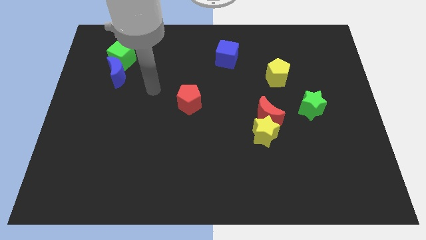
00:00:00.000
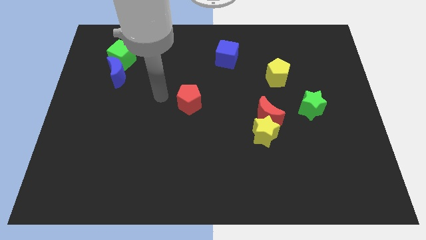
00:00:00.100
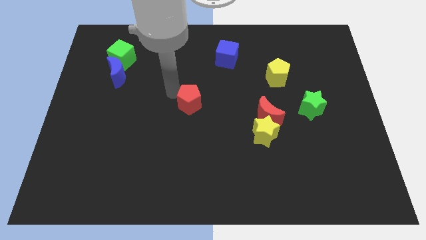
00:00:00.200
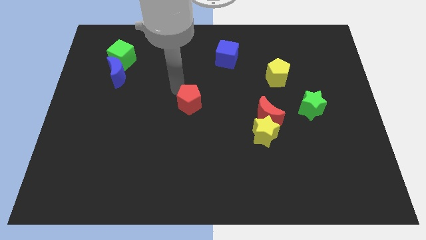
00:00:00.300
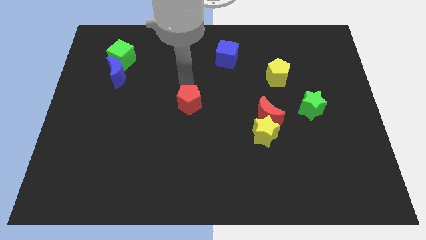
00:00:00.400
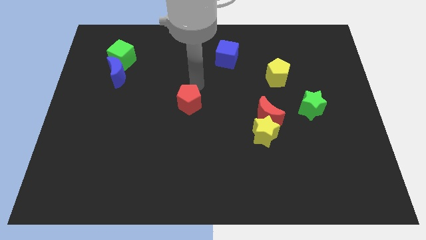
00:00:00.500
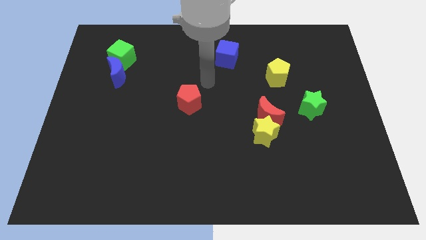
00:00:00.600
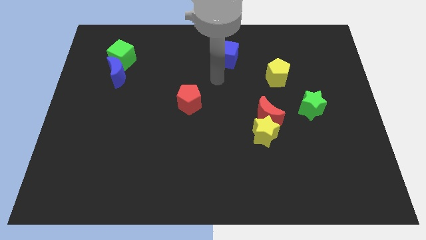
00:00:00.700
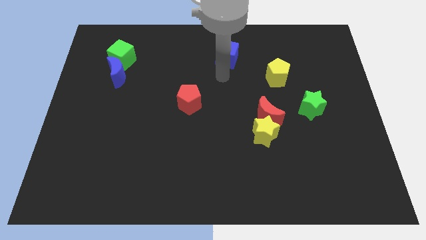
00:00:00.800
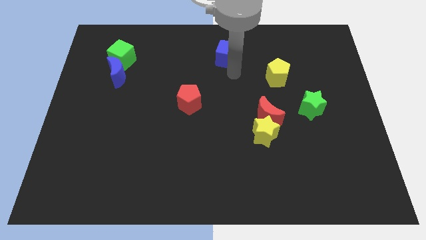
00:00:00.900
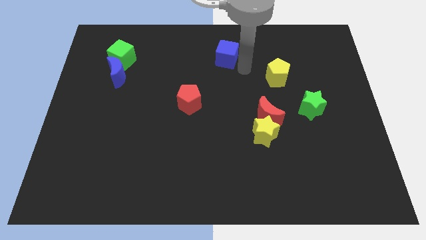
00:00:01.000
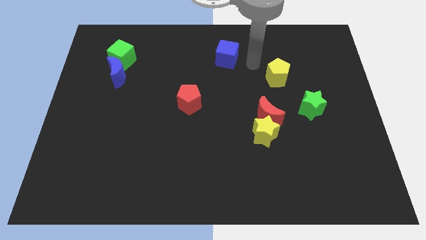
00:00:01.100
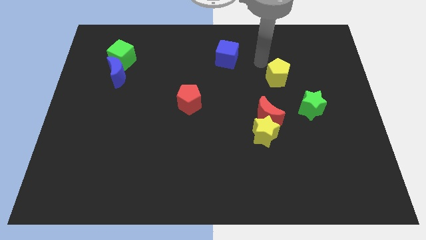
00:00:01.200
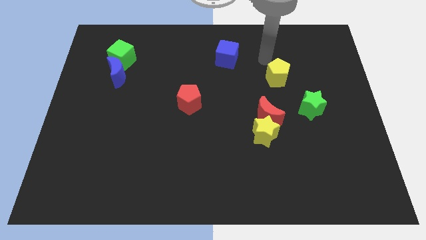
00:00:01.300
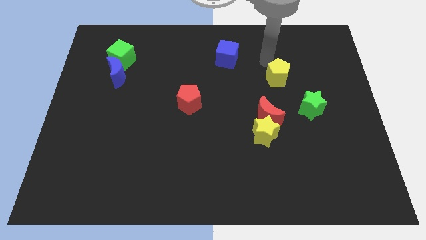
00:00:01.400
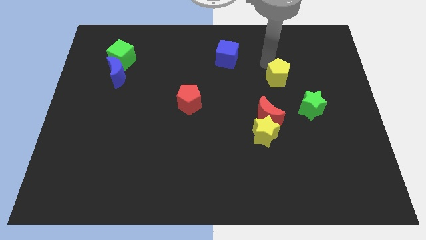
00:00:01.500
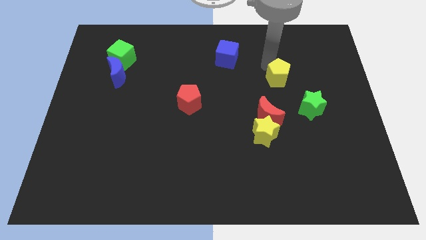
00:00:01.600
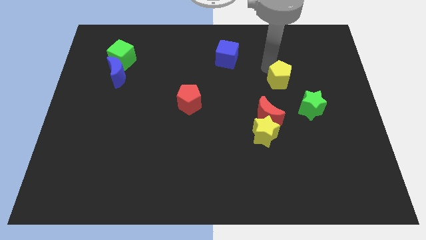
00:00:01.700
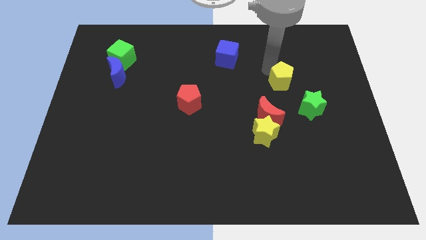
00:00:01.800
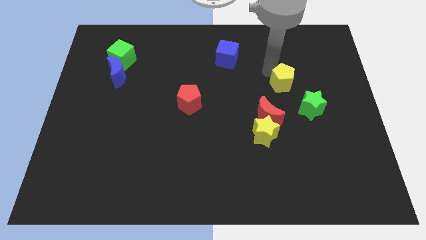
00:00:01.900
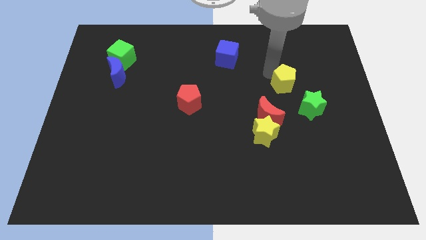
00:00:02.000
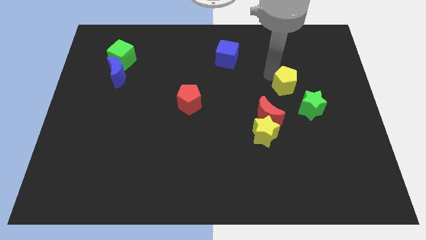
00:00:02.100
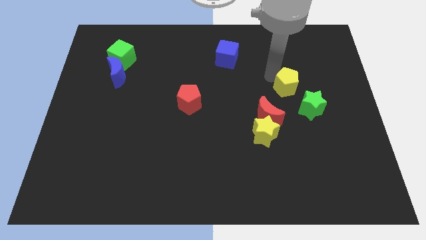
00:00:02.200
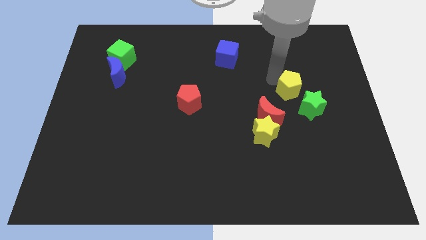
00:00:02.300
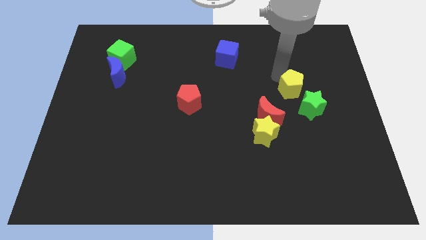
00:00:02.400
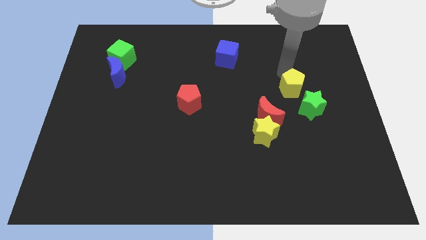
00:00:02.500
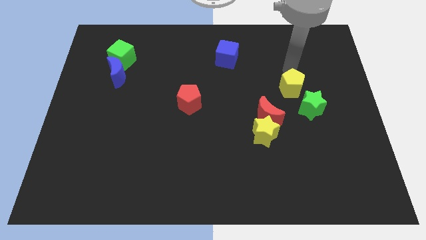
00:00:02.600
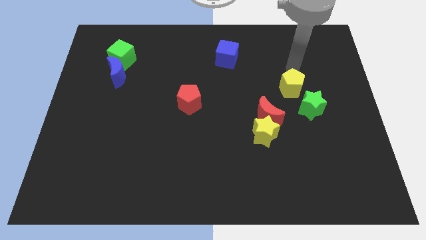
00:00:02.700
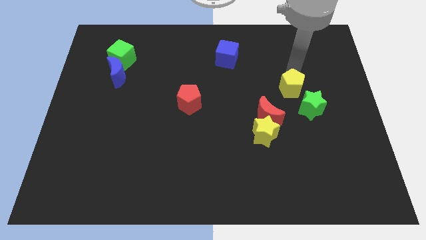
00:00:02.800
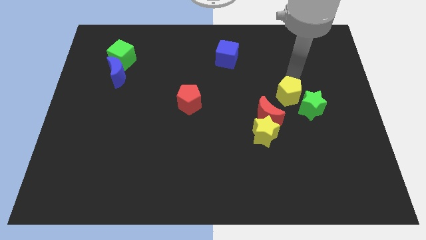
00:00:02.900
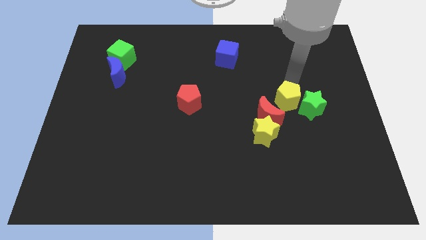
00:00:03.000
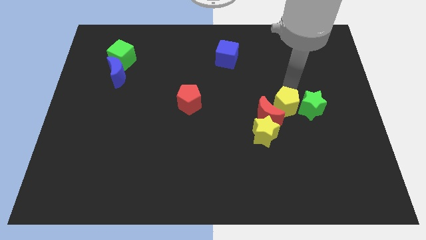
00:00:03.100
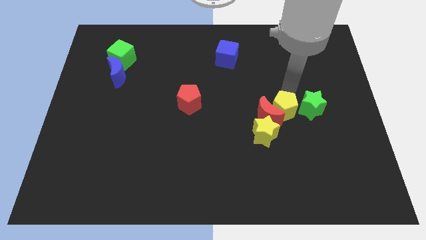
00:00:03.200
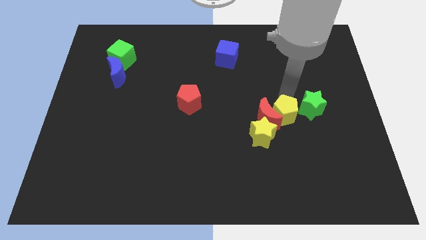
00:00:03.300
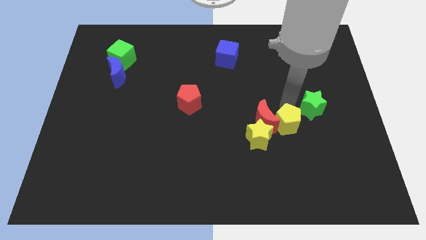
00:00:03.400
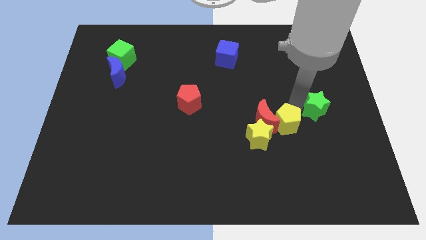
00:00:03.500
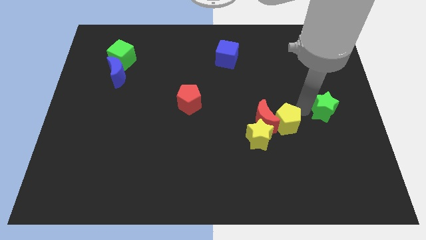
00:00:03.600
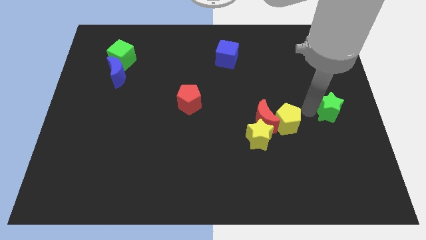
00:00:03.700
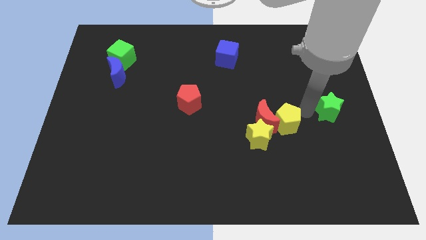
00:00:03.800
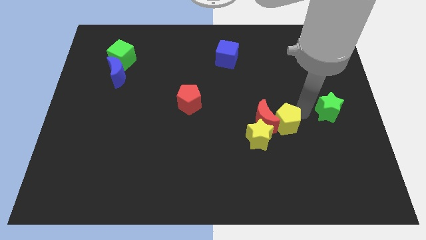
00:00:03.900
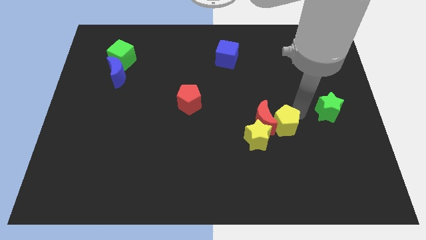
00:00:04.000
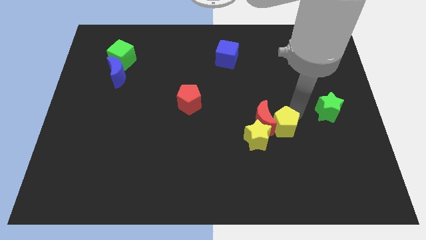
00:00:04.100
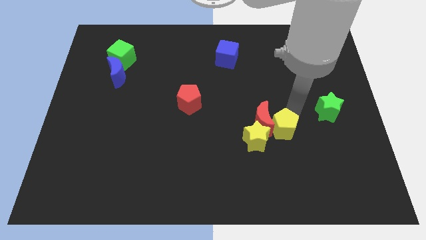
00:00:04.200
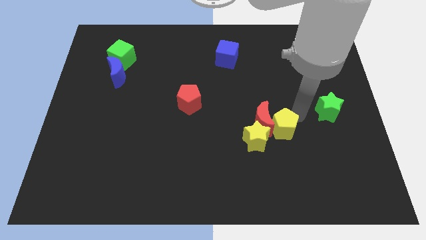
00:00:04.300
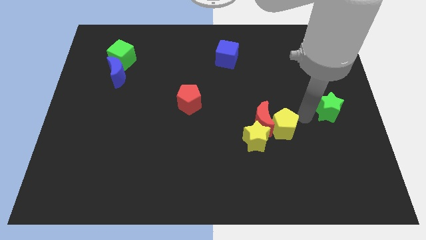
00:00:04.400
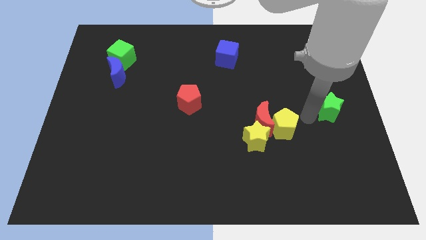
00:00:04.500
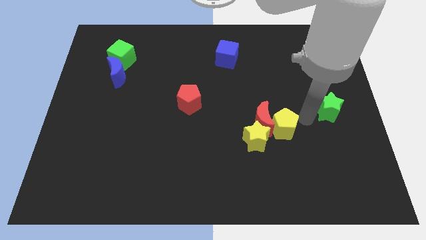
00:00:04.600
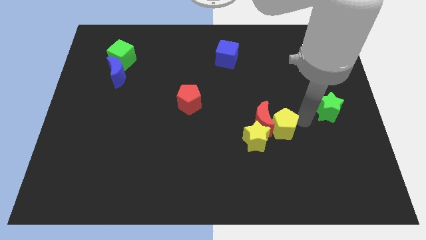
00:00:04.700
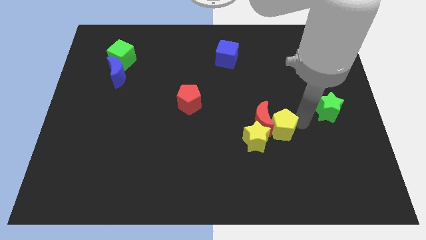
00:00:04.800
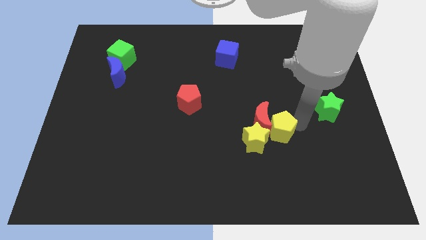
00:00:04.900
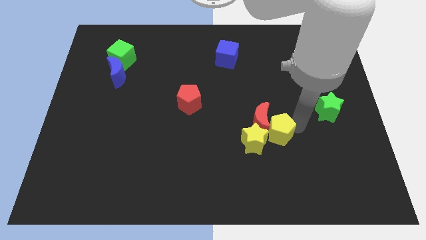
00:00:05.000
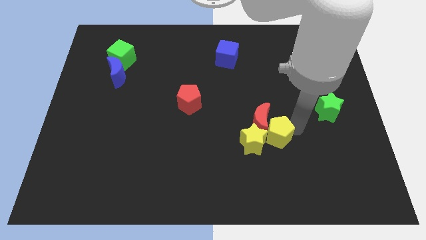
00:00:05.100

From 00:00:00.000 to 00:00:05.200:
put the yellow pentagon to the yellow star

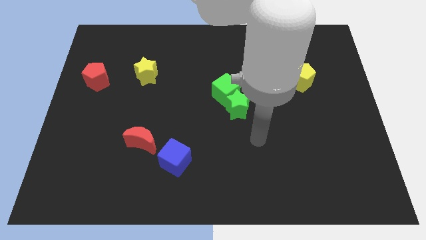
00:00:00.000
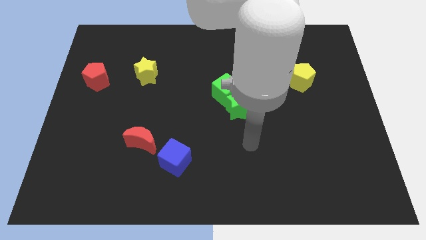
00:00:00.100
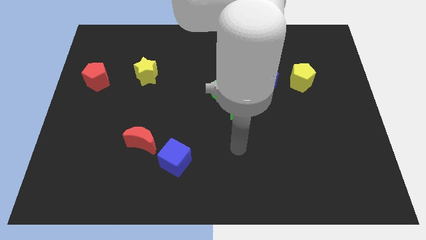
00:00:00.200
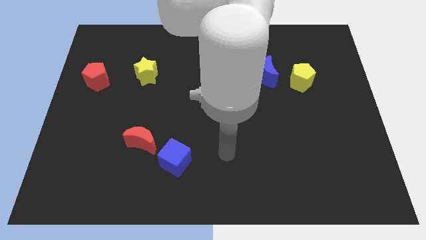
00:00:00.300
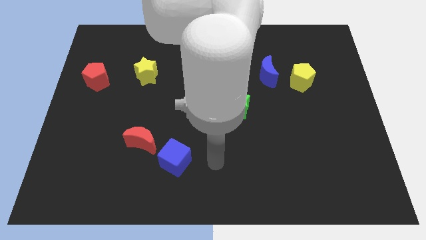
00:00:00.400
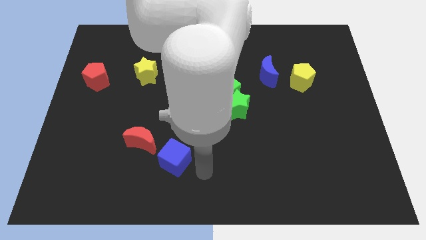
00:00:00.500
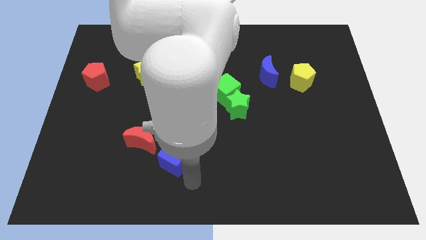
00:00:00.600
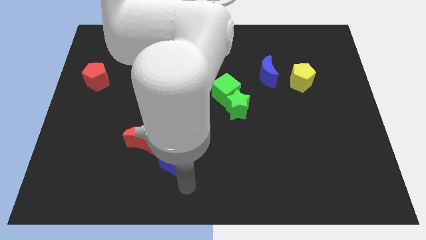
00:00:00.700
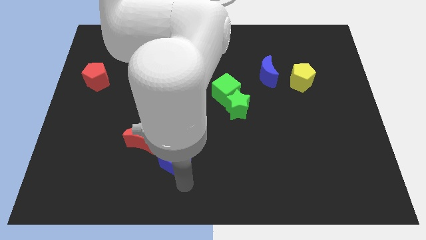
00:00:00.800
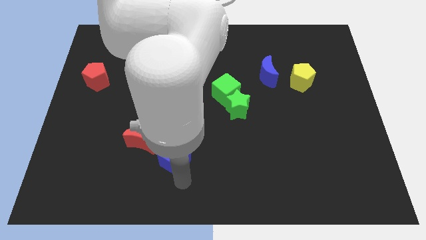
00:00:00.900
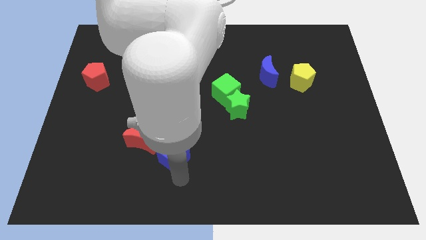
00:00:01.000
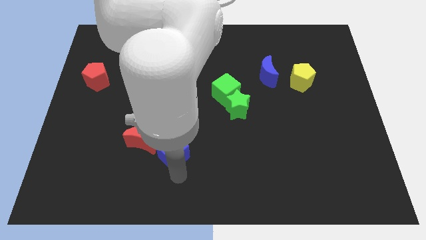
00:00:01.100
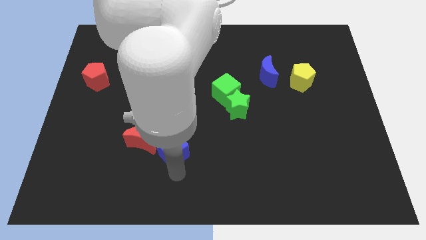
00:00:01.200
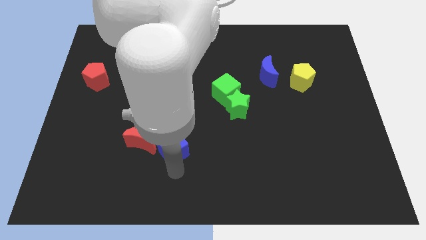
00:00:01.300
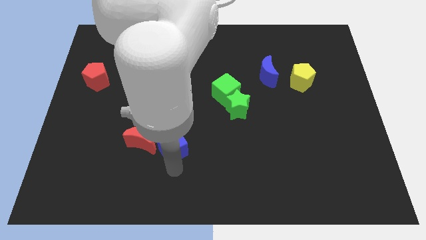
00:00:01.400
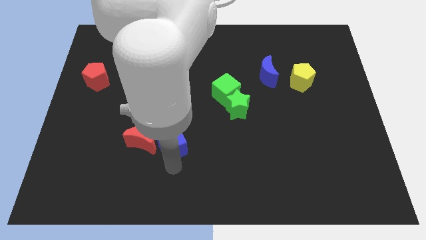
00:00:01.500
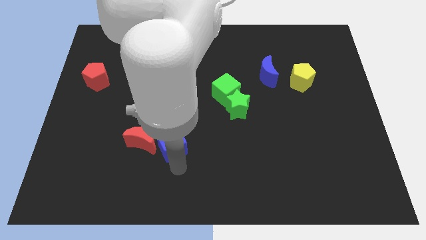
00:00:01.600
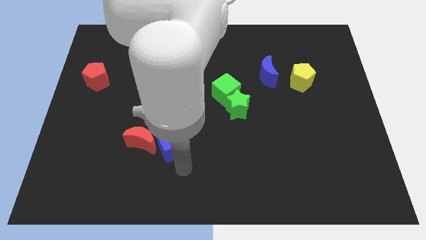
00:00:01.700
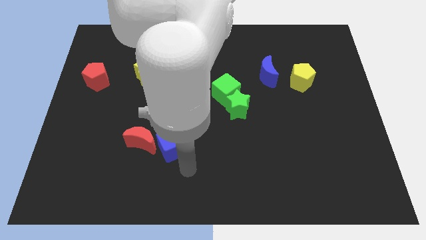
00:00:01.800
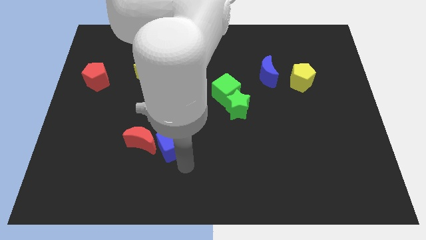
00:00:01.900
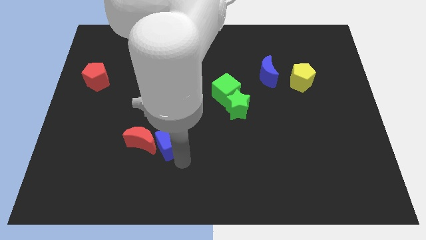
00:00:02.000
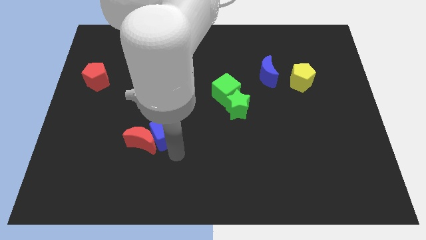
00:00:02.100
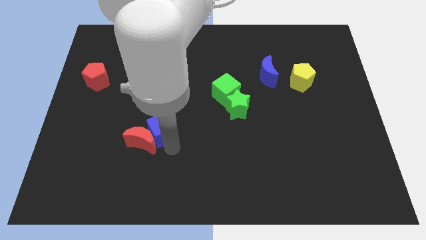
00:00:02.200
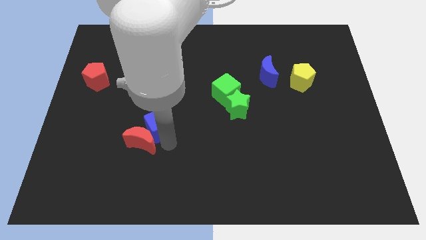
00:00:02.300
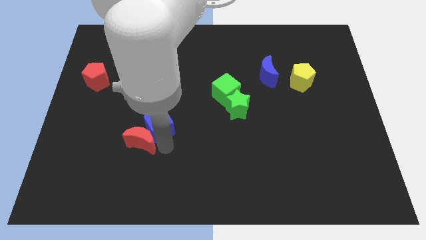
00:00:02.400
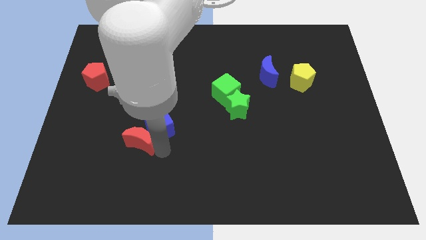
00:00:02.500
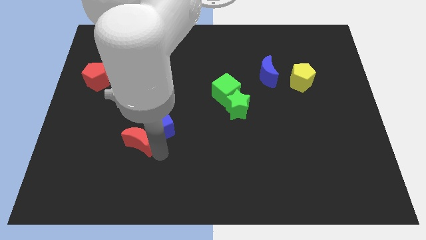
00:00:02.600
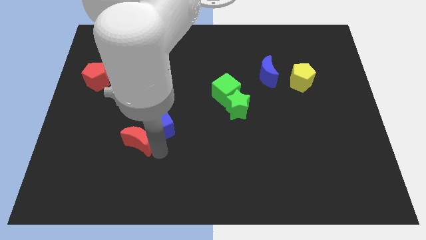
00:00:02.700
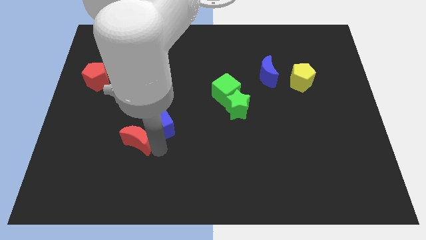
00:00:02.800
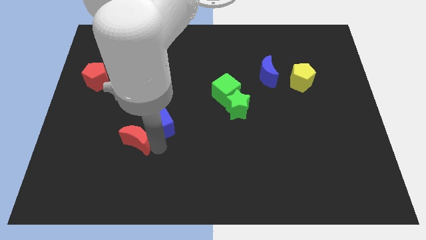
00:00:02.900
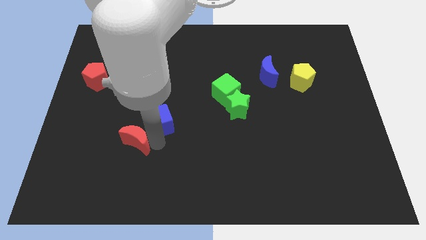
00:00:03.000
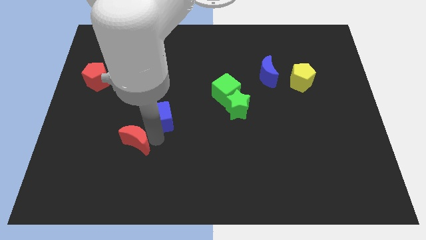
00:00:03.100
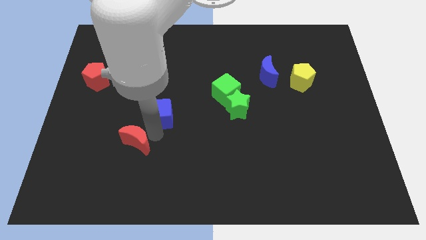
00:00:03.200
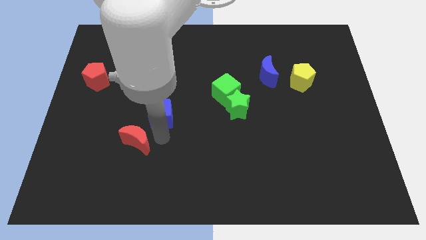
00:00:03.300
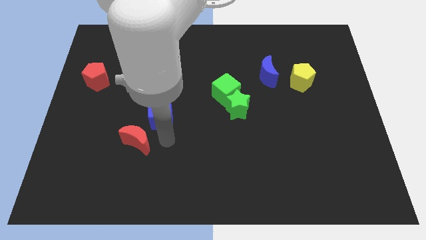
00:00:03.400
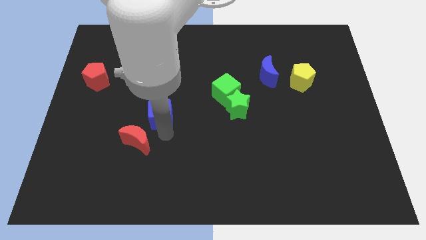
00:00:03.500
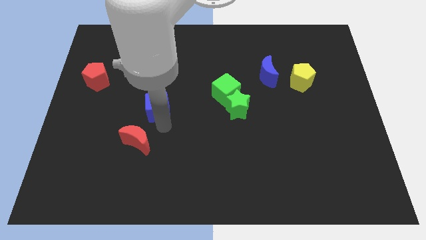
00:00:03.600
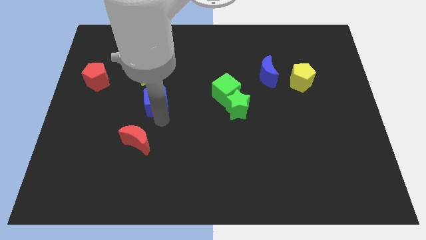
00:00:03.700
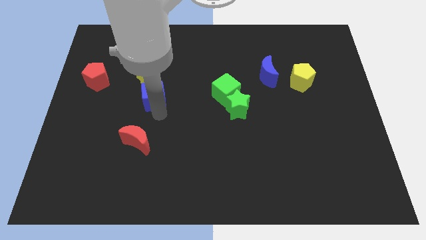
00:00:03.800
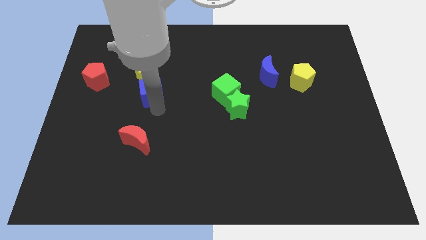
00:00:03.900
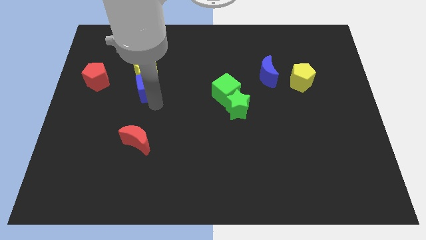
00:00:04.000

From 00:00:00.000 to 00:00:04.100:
put the blue cube close to the yellow star
